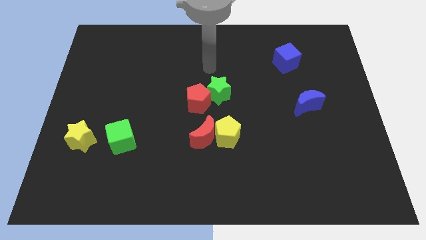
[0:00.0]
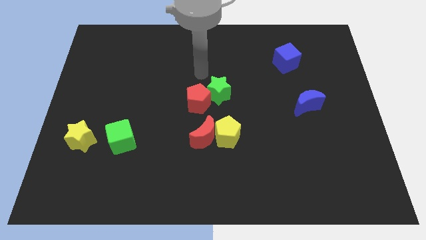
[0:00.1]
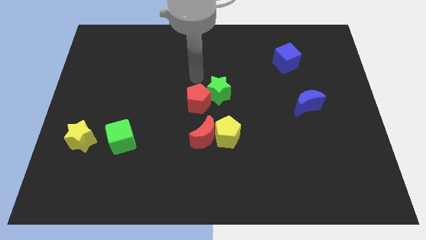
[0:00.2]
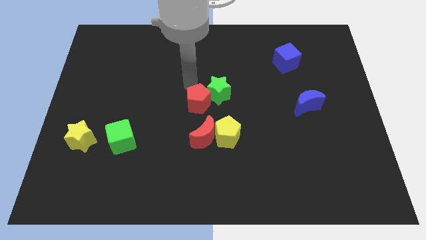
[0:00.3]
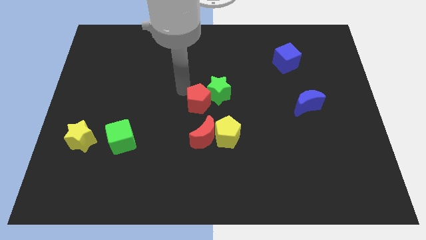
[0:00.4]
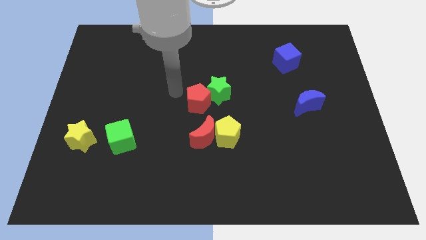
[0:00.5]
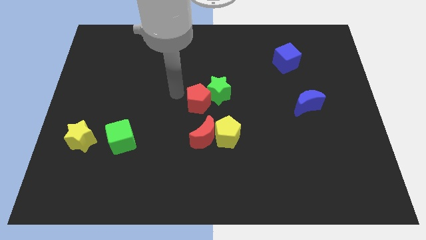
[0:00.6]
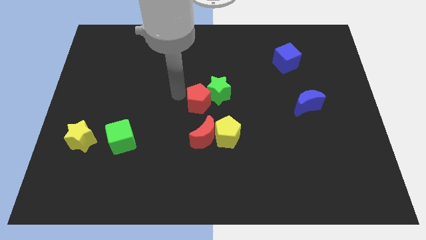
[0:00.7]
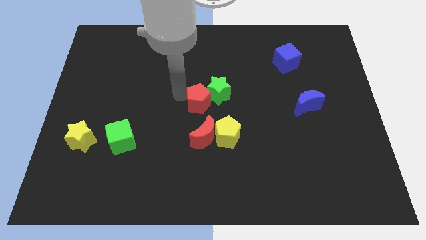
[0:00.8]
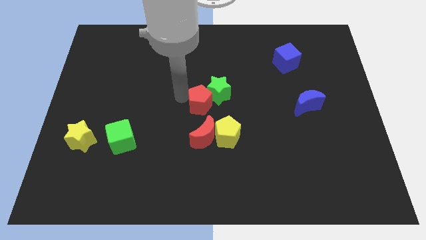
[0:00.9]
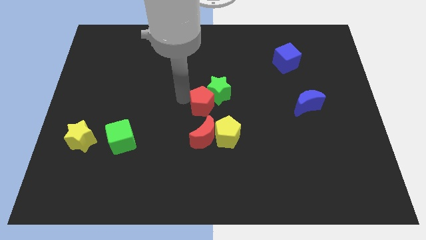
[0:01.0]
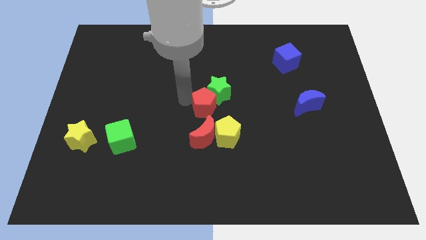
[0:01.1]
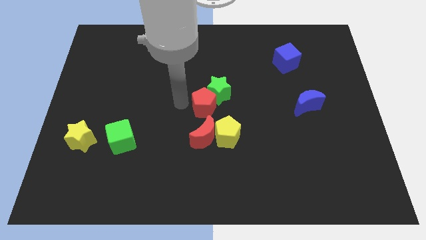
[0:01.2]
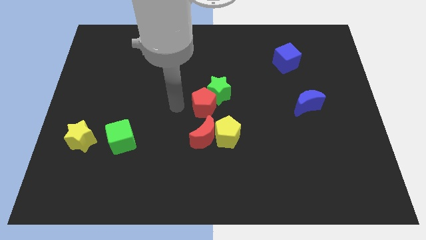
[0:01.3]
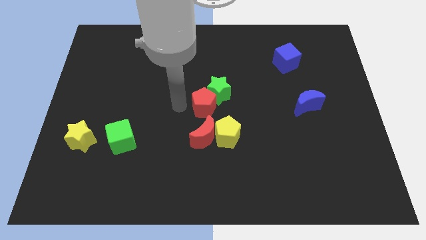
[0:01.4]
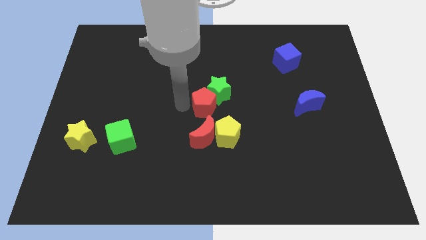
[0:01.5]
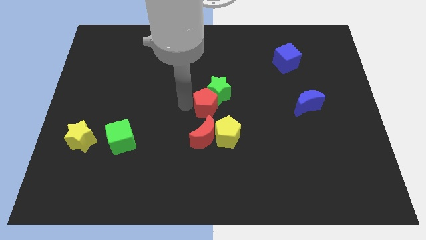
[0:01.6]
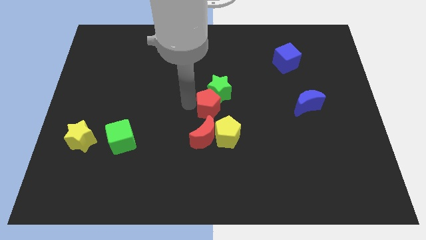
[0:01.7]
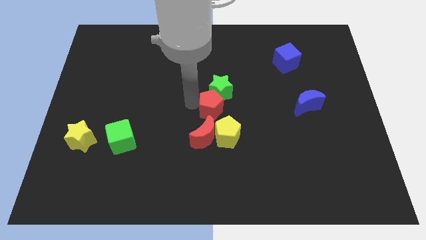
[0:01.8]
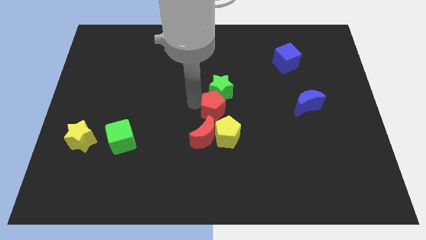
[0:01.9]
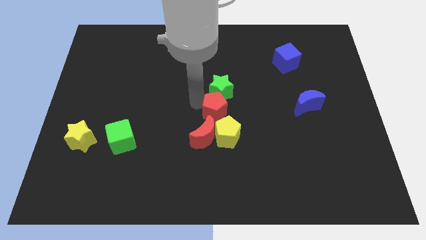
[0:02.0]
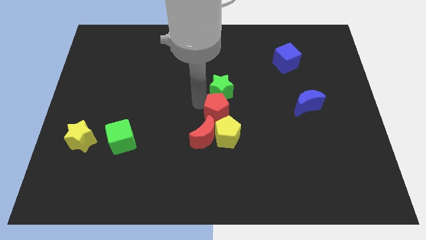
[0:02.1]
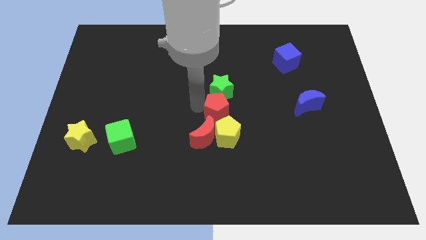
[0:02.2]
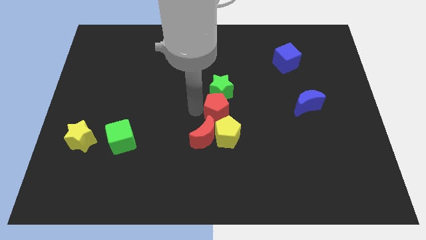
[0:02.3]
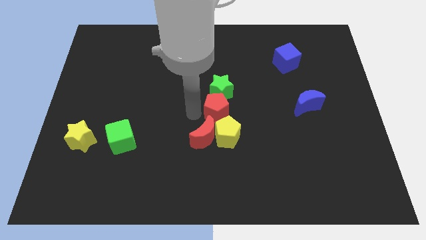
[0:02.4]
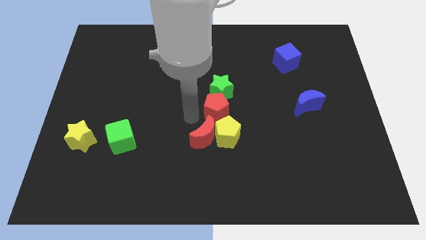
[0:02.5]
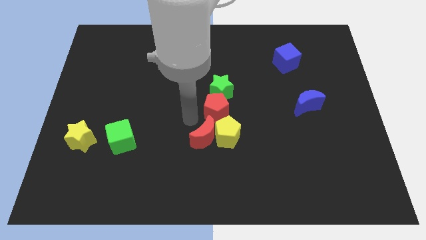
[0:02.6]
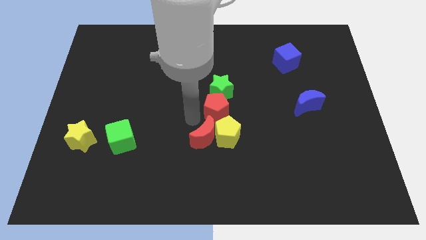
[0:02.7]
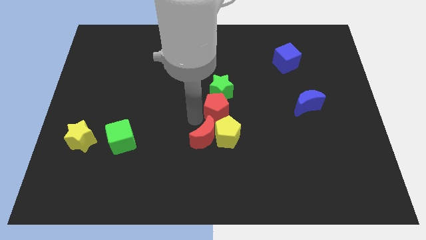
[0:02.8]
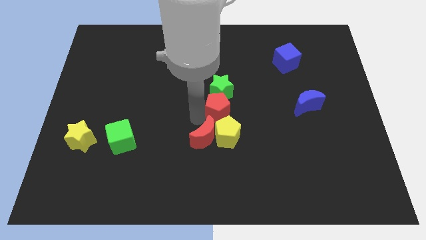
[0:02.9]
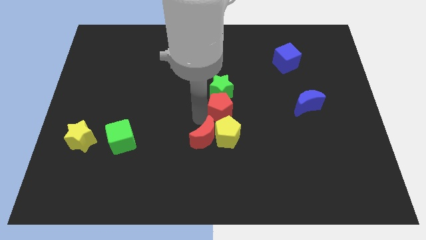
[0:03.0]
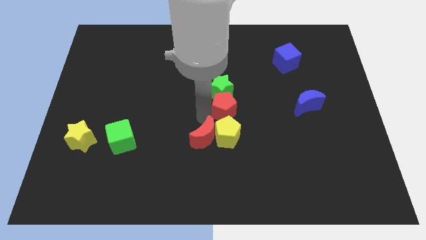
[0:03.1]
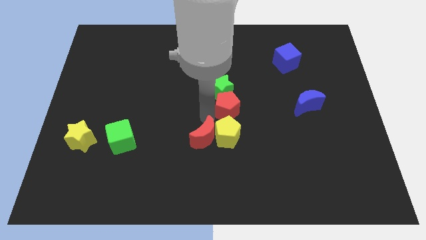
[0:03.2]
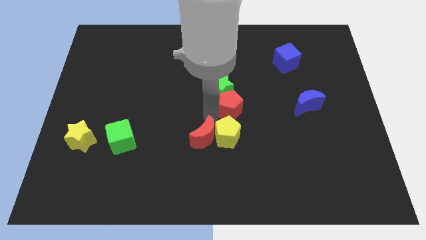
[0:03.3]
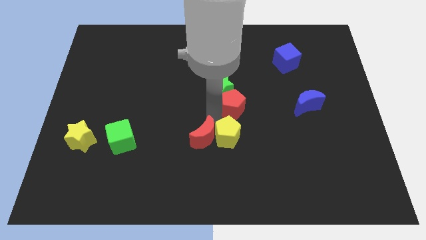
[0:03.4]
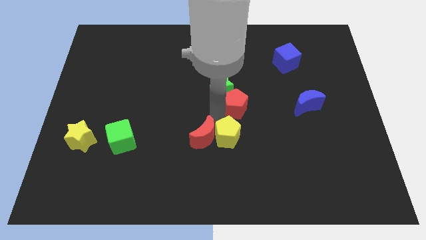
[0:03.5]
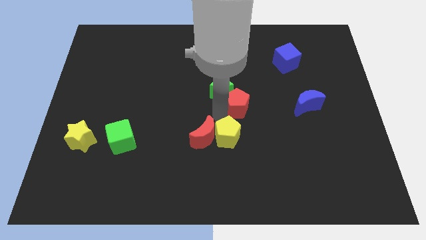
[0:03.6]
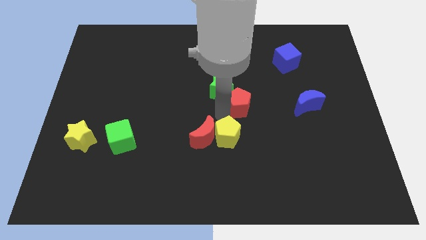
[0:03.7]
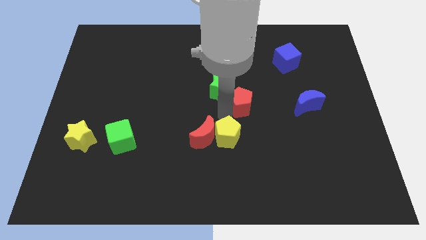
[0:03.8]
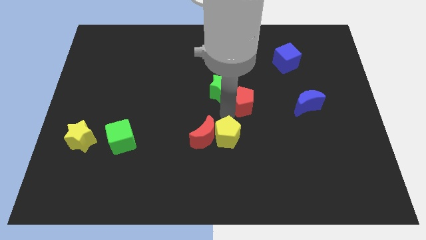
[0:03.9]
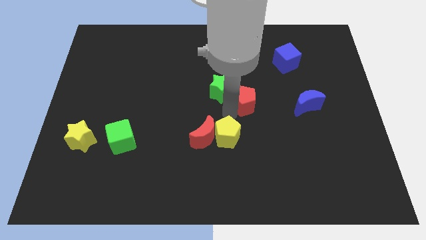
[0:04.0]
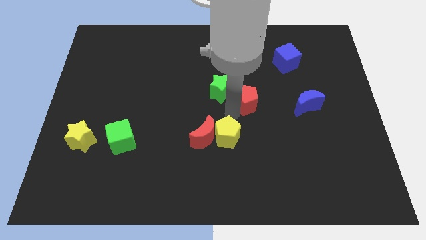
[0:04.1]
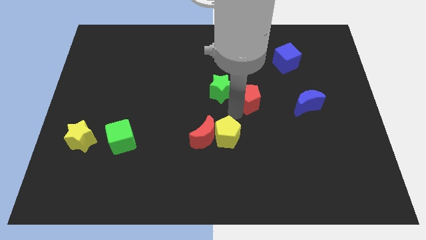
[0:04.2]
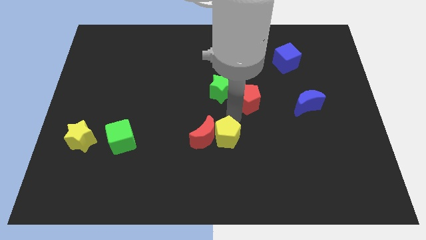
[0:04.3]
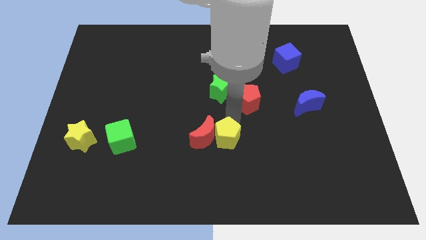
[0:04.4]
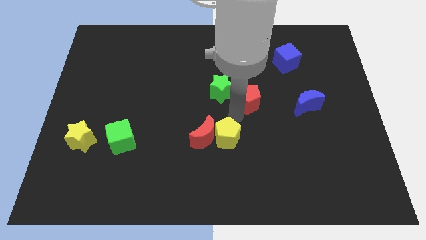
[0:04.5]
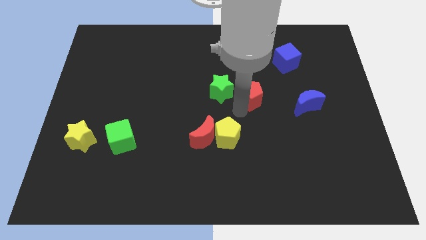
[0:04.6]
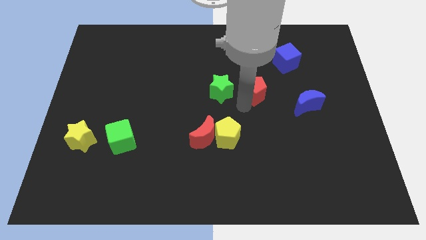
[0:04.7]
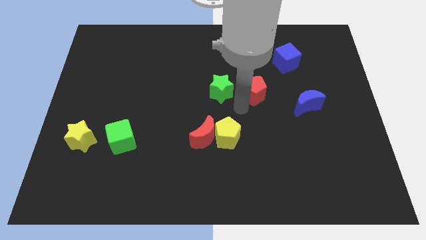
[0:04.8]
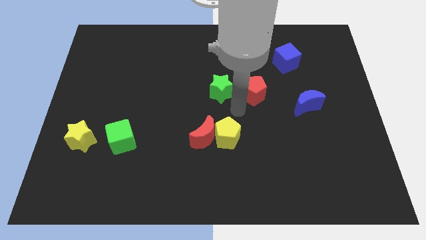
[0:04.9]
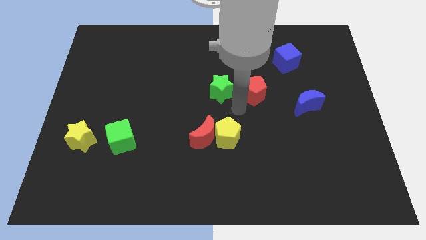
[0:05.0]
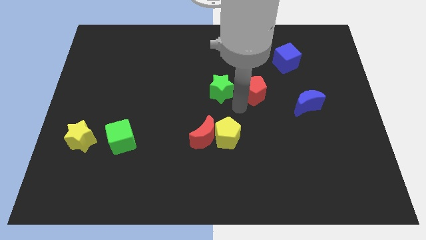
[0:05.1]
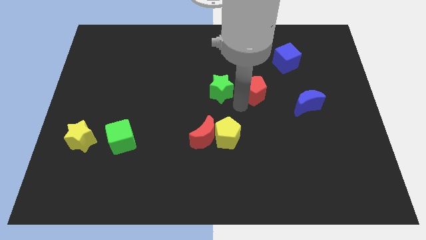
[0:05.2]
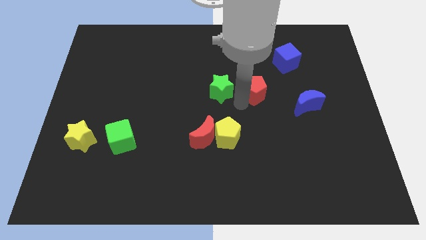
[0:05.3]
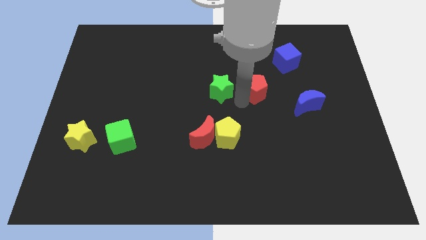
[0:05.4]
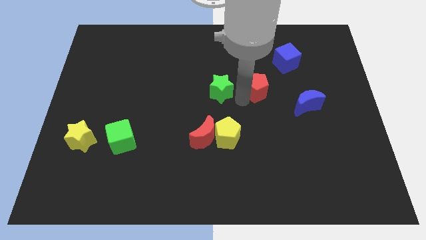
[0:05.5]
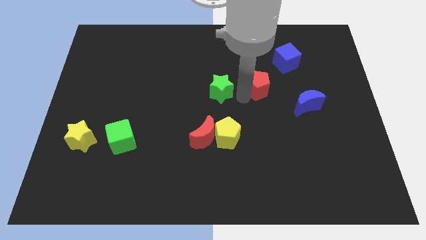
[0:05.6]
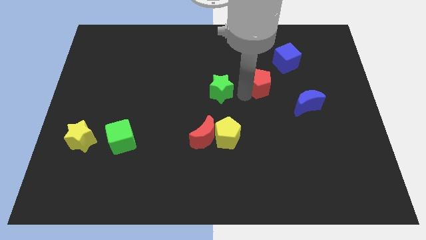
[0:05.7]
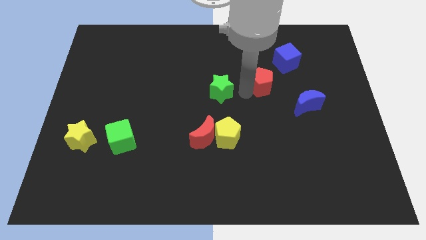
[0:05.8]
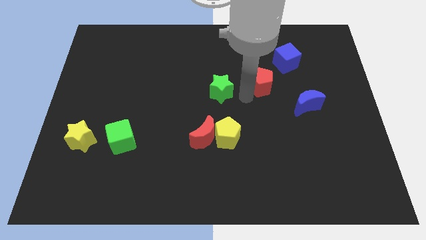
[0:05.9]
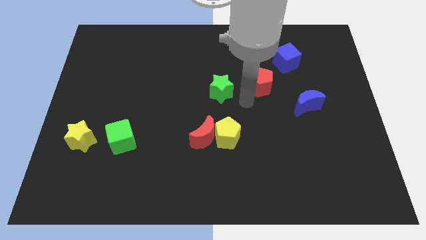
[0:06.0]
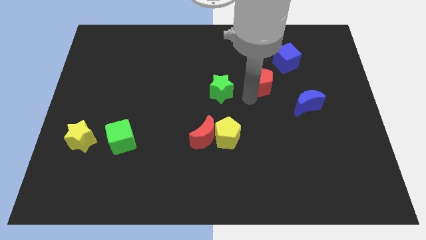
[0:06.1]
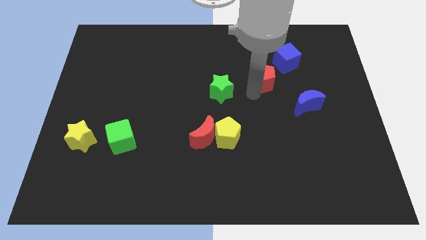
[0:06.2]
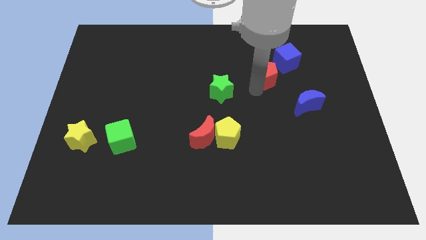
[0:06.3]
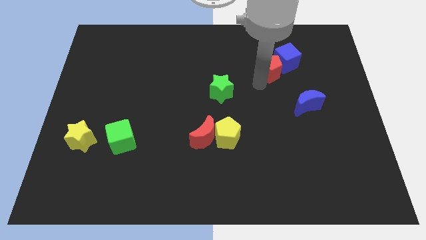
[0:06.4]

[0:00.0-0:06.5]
move the red pentagon close to the blue cube

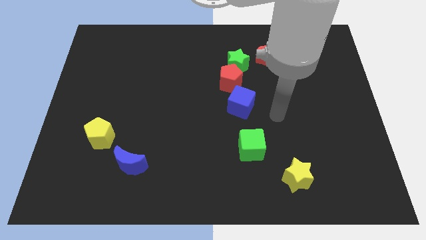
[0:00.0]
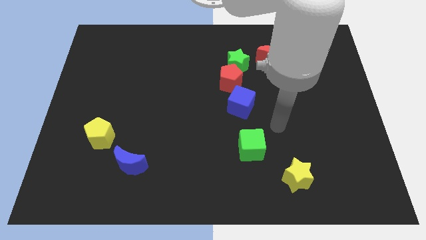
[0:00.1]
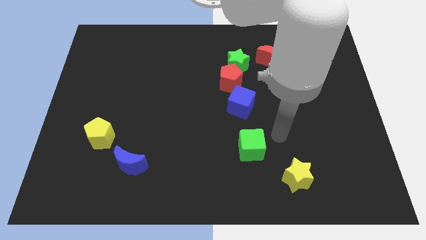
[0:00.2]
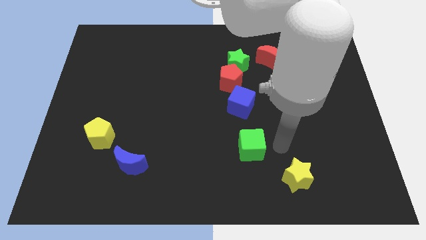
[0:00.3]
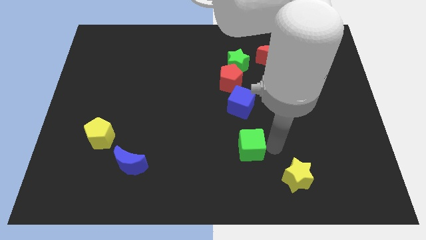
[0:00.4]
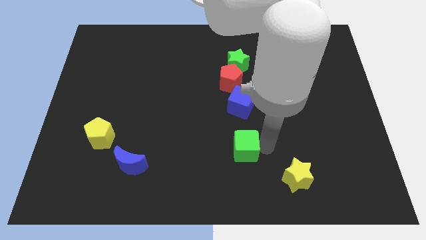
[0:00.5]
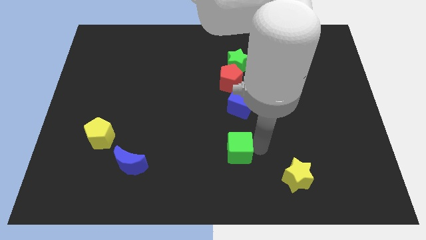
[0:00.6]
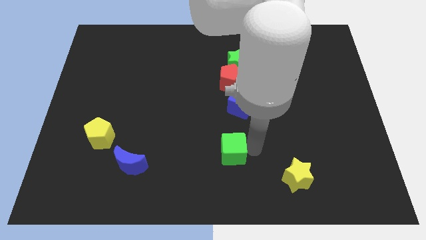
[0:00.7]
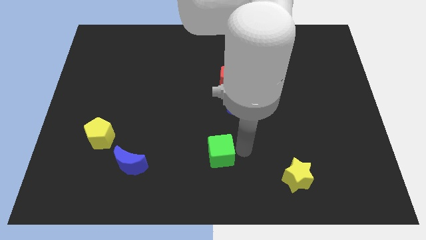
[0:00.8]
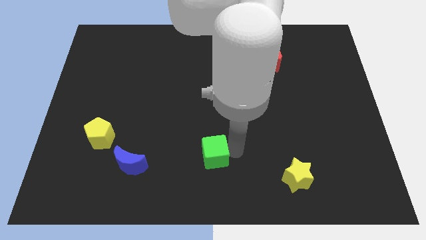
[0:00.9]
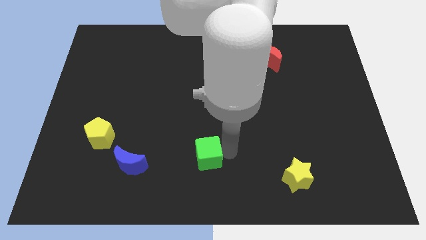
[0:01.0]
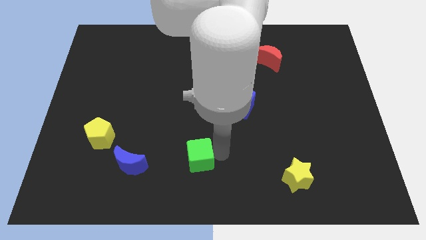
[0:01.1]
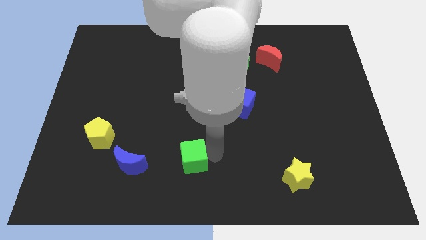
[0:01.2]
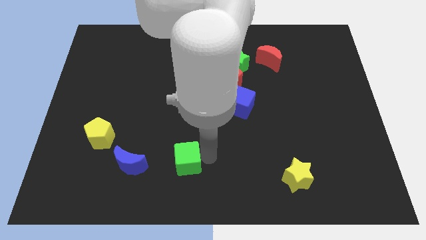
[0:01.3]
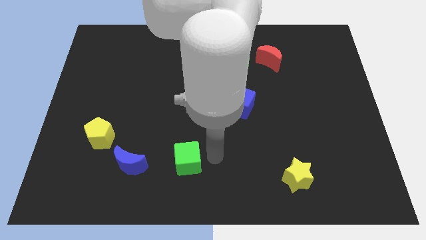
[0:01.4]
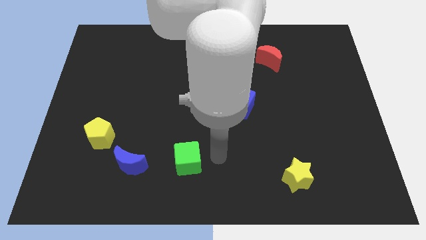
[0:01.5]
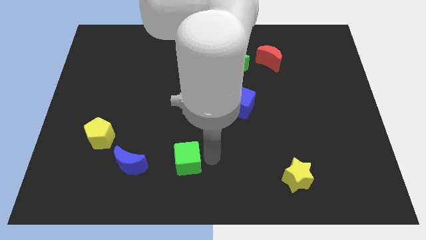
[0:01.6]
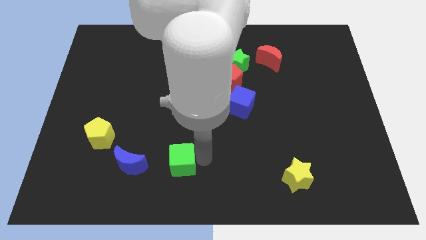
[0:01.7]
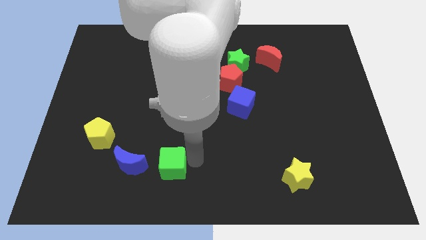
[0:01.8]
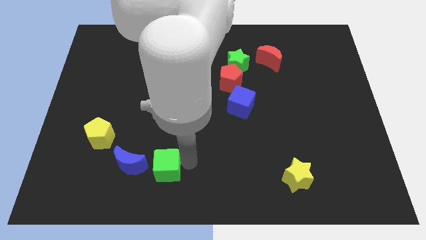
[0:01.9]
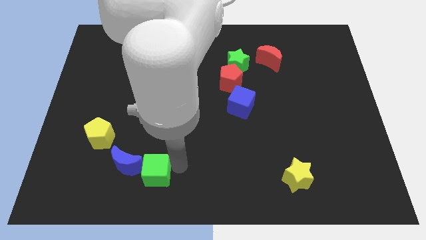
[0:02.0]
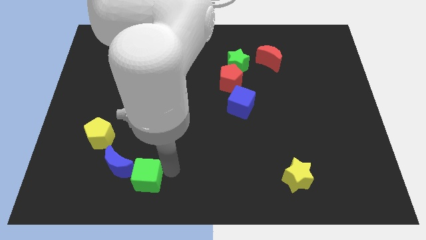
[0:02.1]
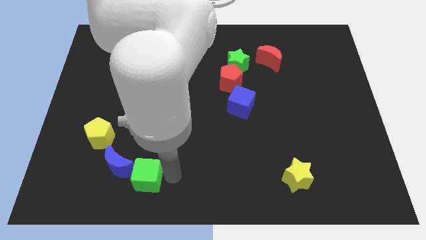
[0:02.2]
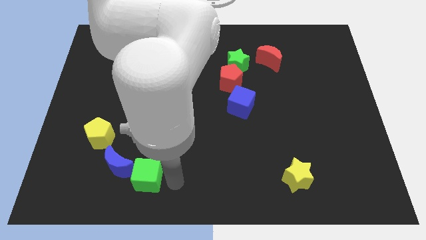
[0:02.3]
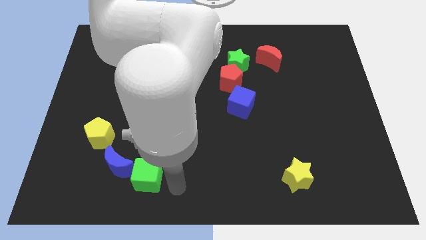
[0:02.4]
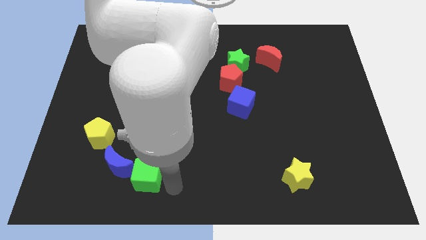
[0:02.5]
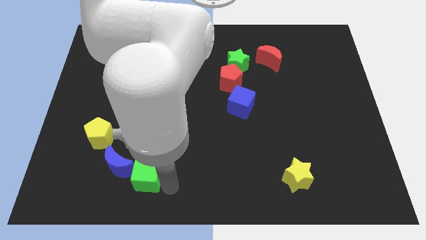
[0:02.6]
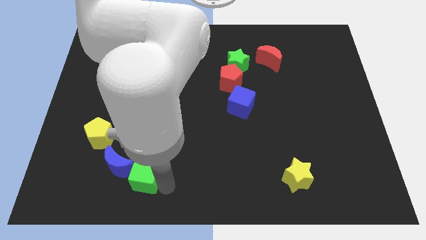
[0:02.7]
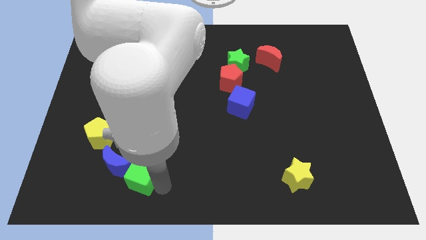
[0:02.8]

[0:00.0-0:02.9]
slide the green cube next to the blue moon
